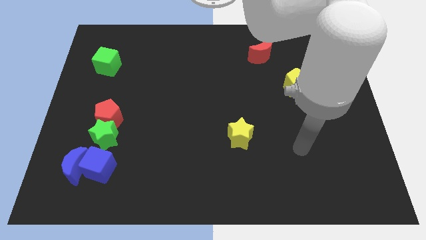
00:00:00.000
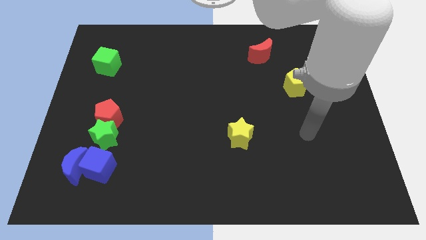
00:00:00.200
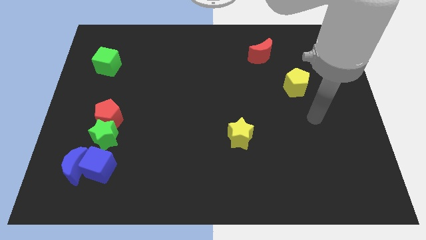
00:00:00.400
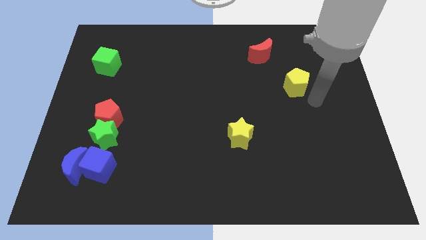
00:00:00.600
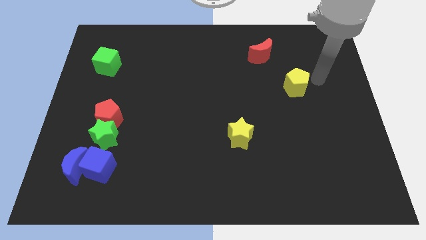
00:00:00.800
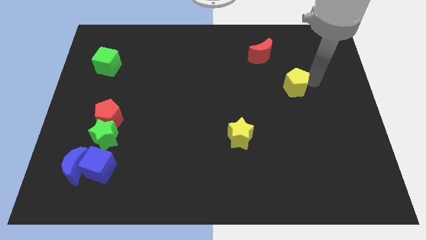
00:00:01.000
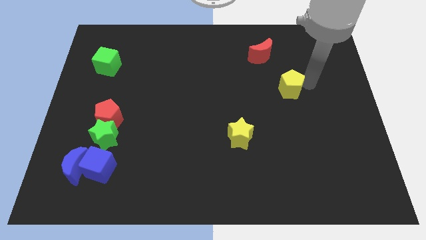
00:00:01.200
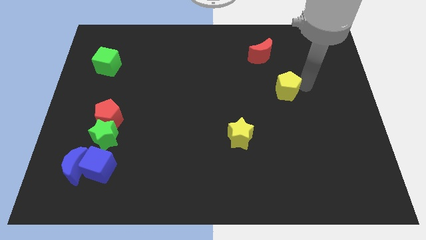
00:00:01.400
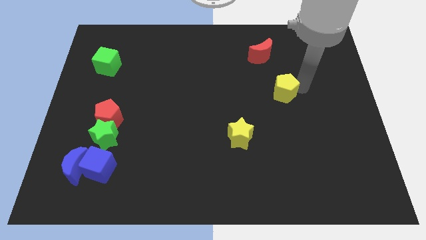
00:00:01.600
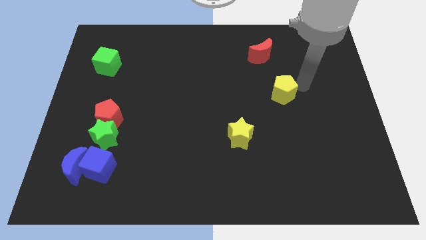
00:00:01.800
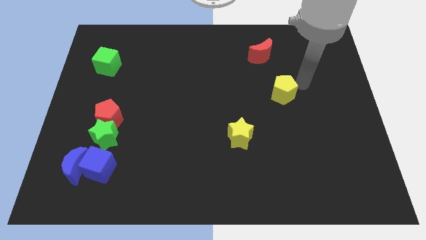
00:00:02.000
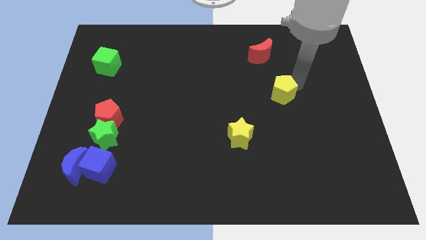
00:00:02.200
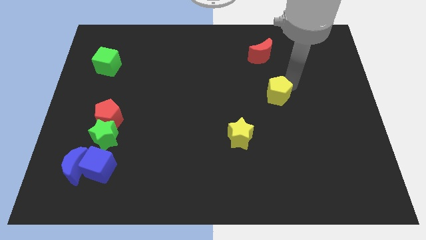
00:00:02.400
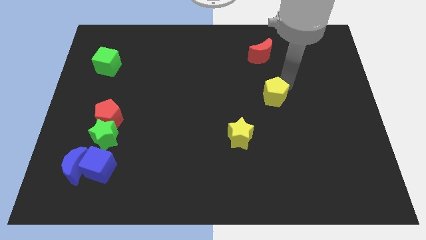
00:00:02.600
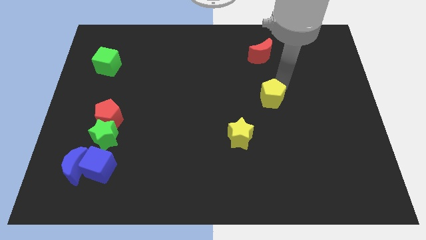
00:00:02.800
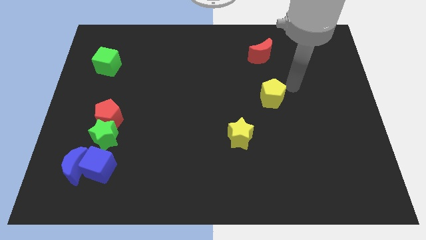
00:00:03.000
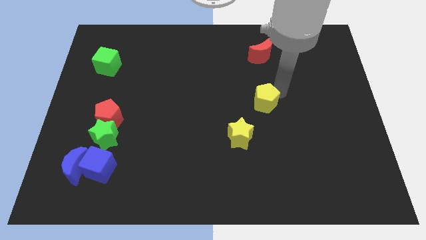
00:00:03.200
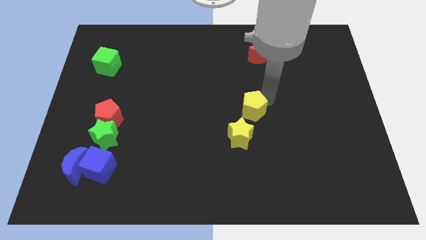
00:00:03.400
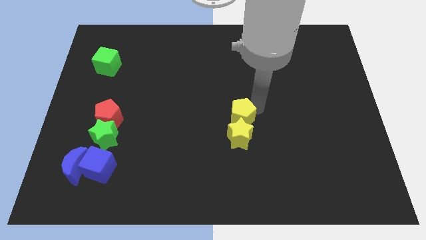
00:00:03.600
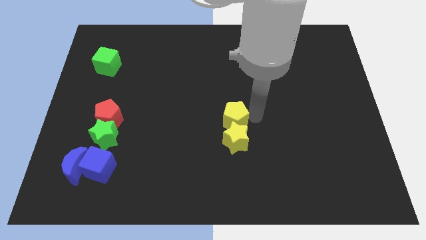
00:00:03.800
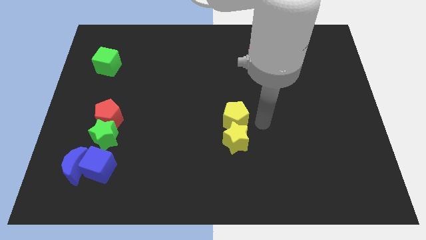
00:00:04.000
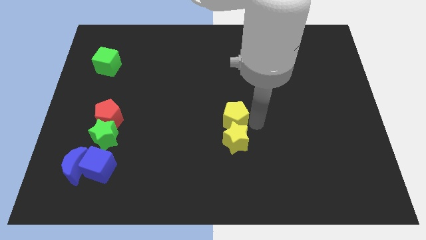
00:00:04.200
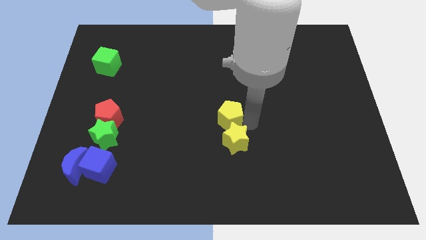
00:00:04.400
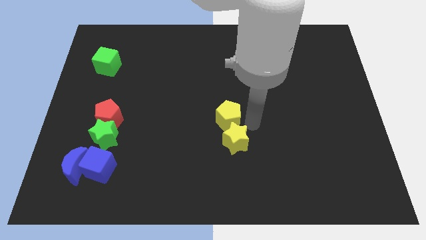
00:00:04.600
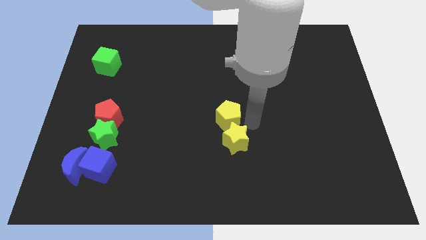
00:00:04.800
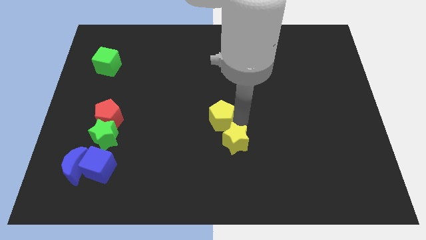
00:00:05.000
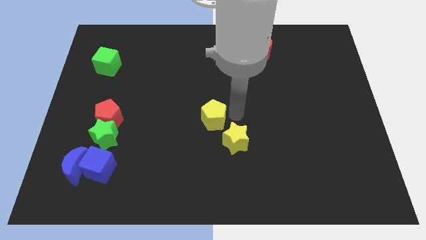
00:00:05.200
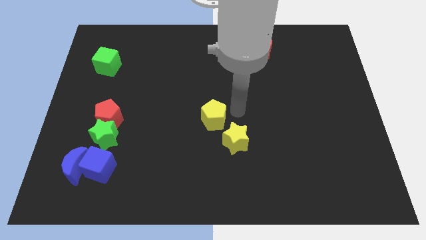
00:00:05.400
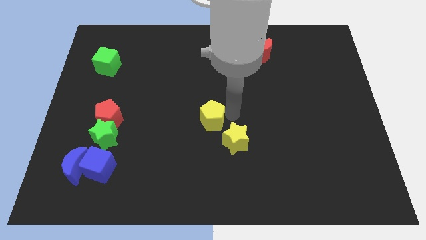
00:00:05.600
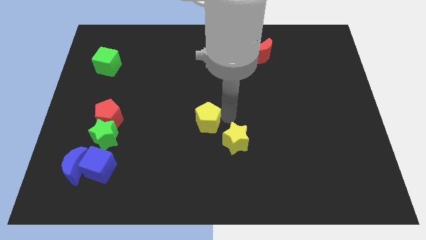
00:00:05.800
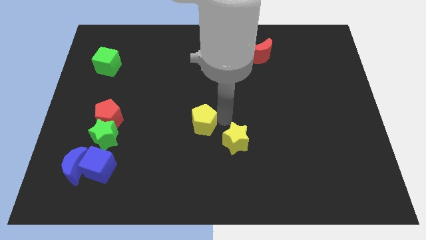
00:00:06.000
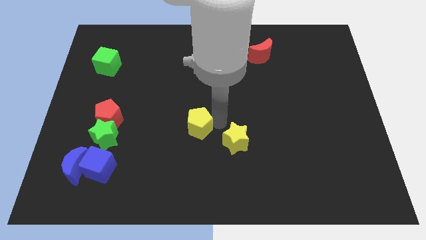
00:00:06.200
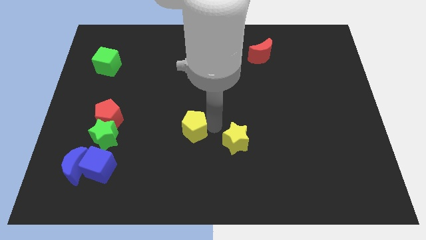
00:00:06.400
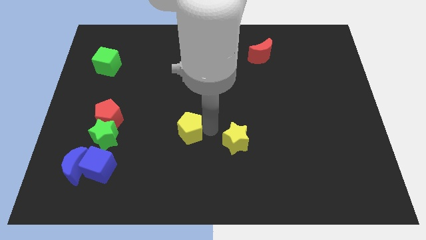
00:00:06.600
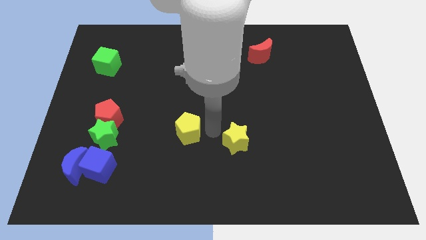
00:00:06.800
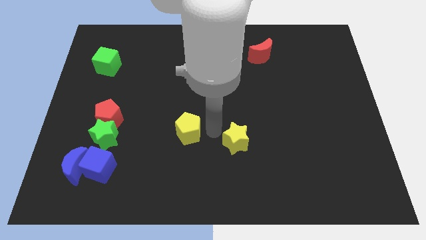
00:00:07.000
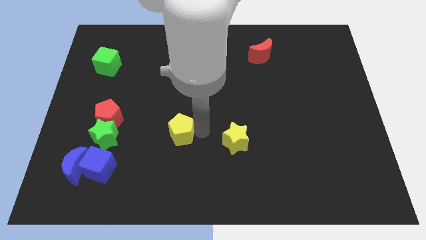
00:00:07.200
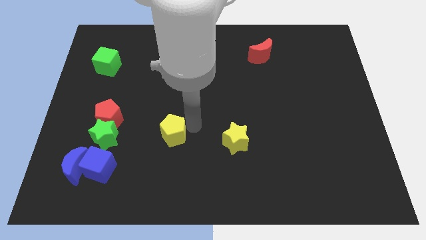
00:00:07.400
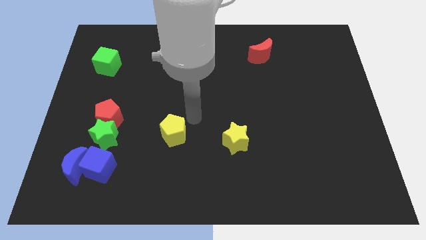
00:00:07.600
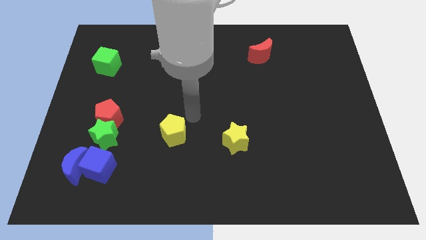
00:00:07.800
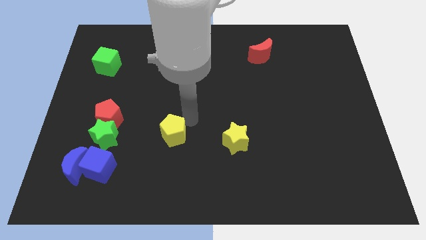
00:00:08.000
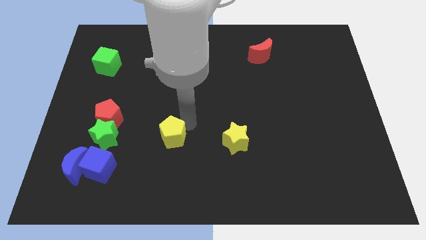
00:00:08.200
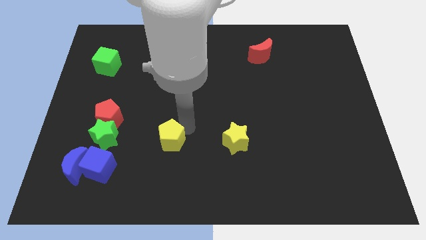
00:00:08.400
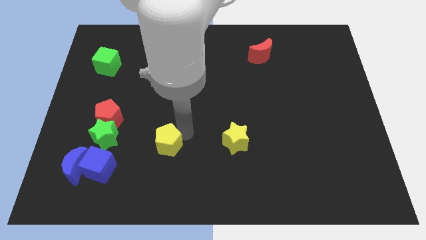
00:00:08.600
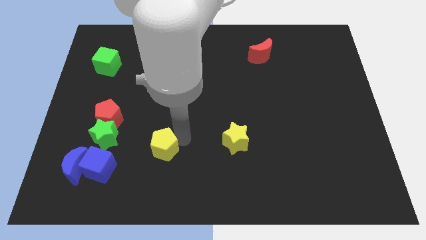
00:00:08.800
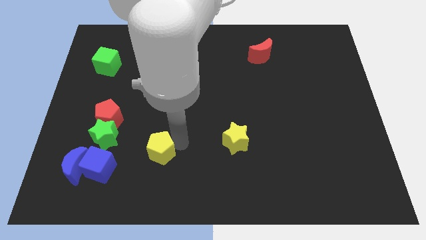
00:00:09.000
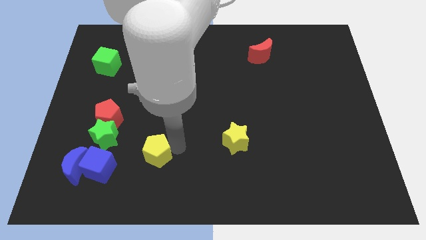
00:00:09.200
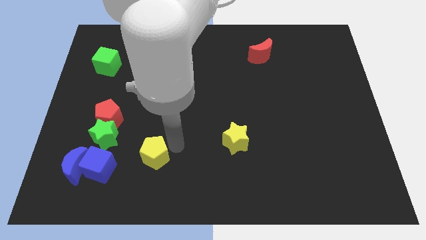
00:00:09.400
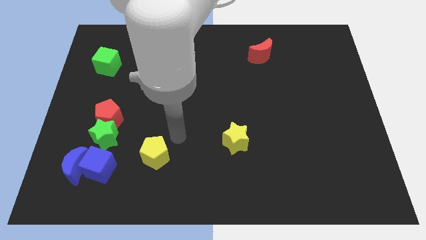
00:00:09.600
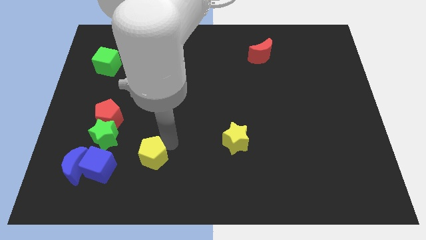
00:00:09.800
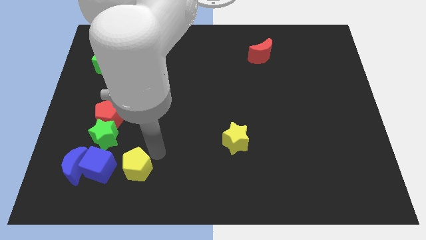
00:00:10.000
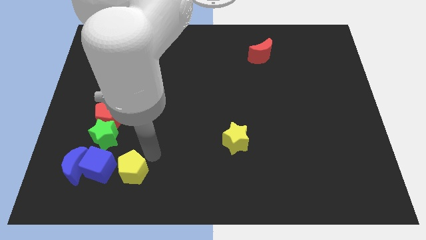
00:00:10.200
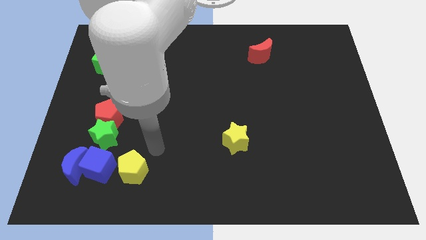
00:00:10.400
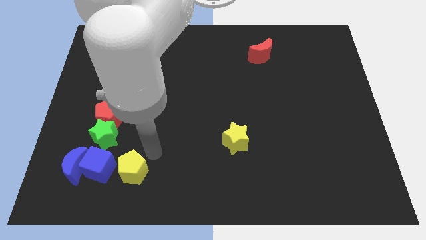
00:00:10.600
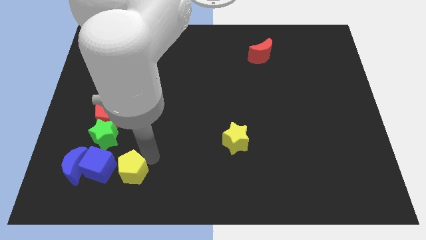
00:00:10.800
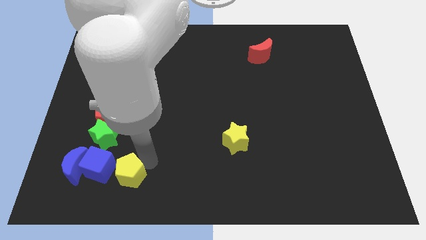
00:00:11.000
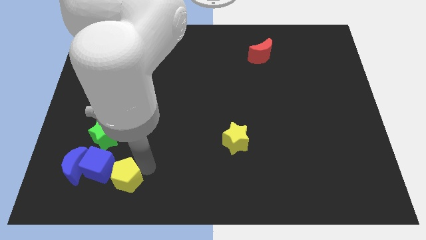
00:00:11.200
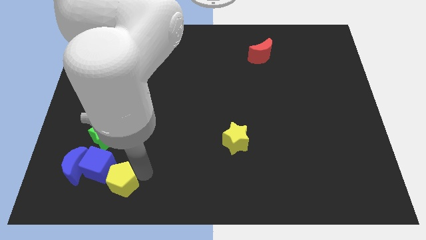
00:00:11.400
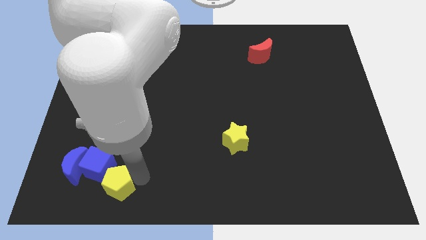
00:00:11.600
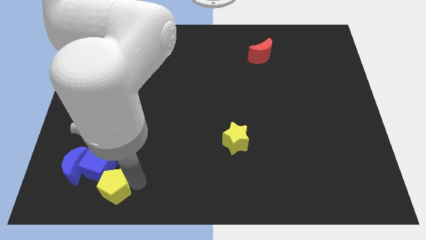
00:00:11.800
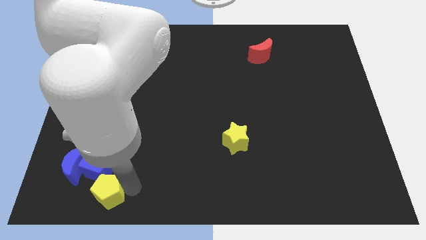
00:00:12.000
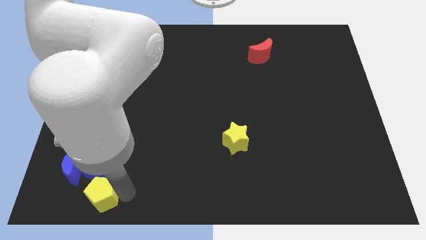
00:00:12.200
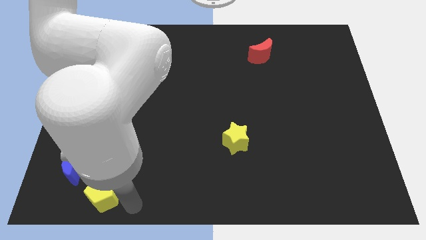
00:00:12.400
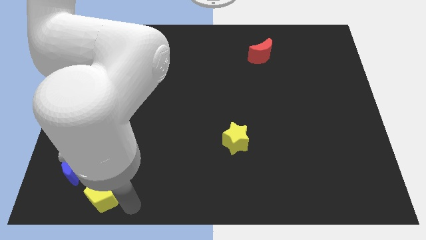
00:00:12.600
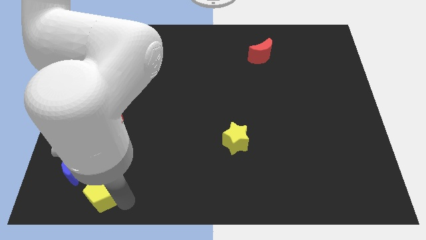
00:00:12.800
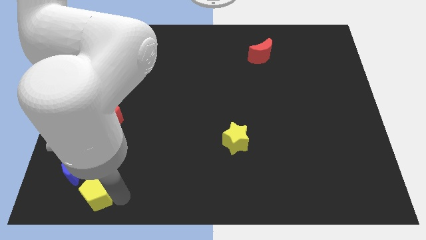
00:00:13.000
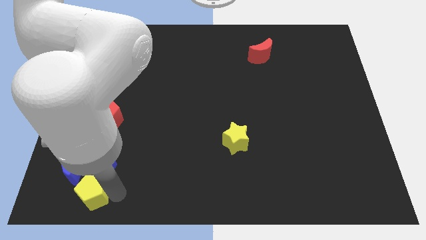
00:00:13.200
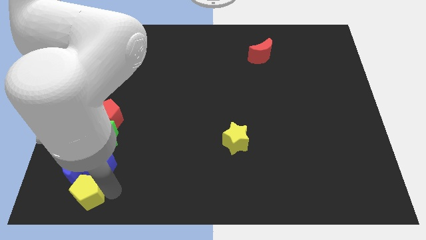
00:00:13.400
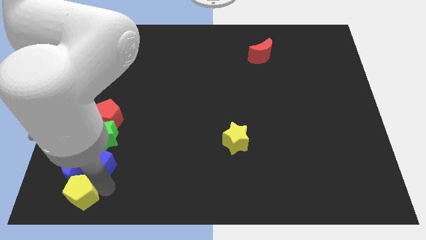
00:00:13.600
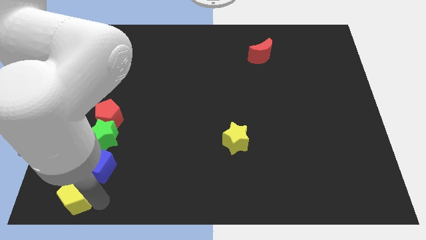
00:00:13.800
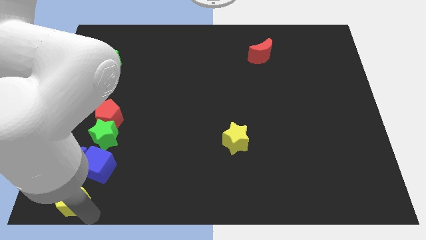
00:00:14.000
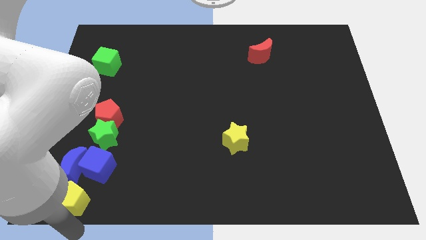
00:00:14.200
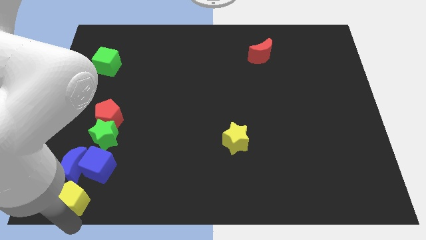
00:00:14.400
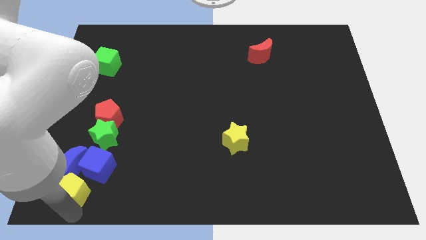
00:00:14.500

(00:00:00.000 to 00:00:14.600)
put the yellow pentagon next to the blue moon
